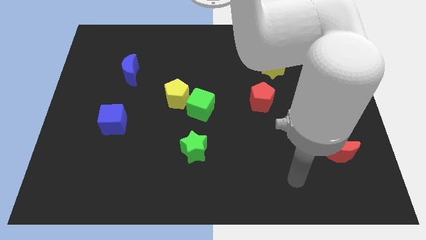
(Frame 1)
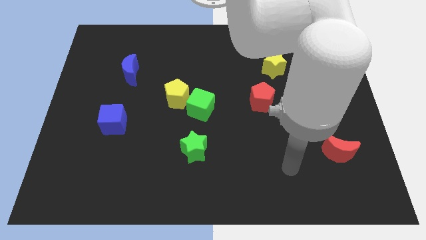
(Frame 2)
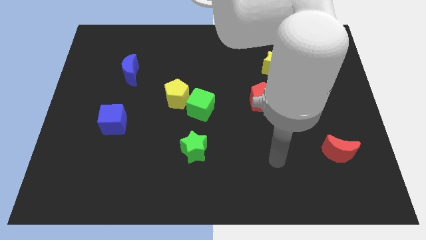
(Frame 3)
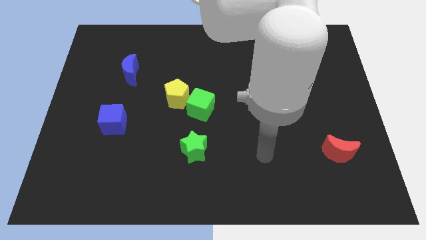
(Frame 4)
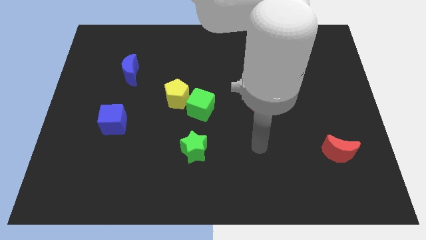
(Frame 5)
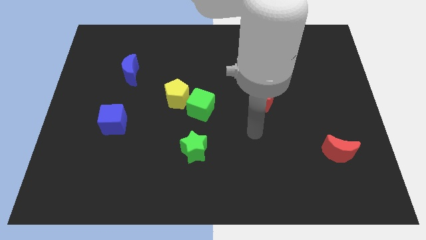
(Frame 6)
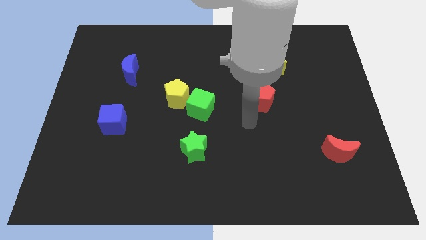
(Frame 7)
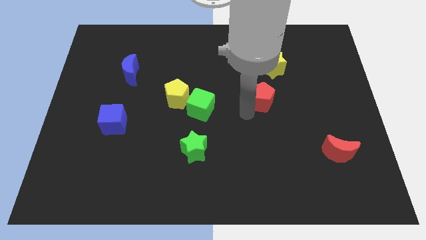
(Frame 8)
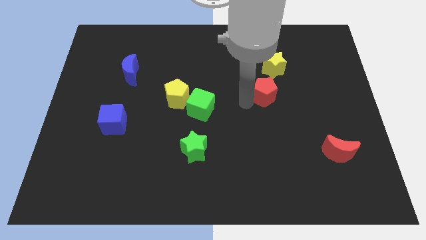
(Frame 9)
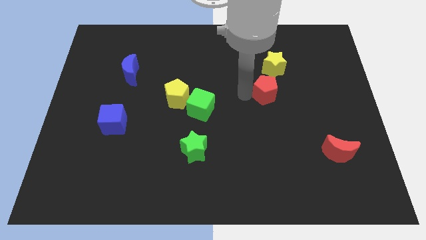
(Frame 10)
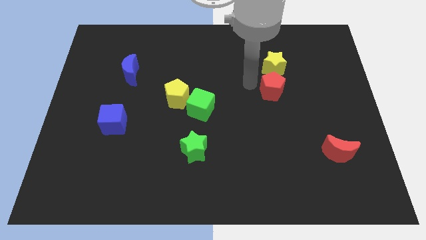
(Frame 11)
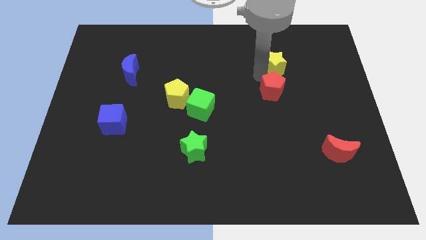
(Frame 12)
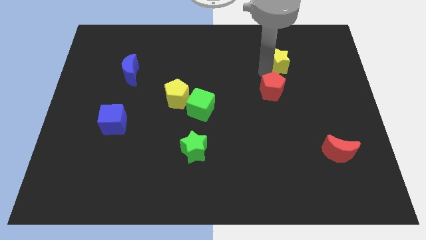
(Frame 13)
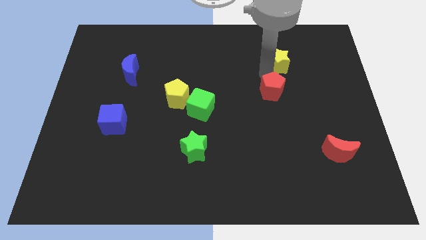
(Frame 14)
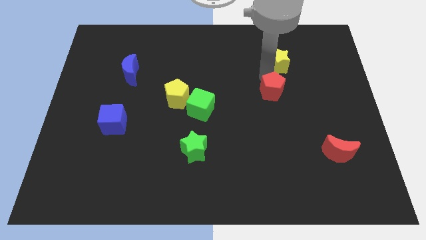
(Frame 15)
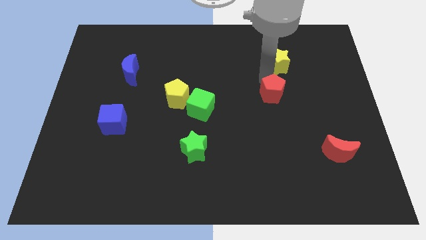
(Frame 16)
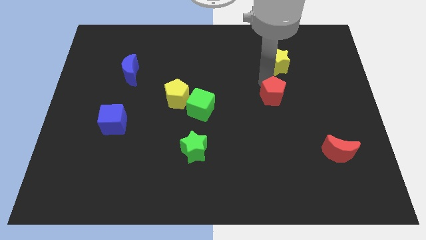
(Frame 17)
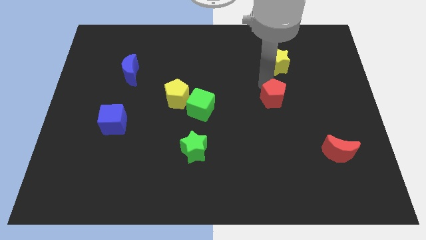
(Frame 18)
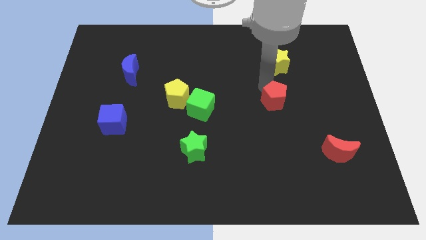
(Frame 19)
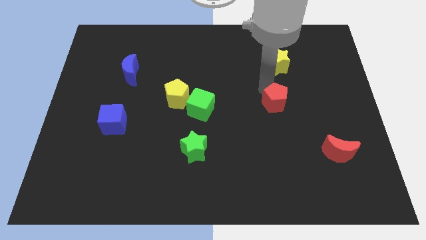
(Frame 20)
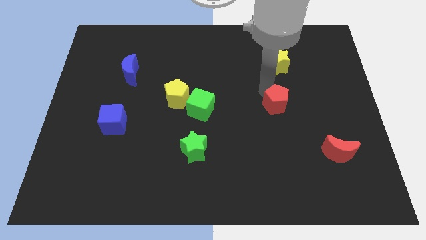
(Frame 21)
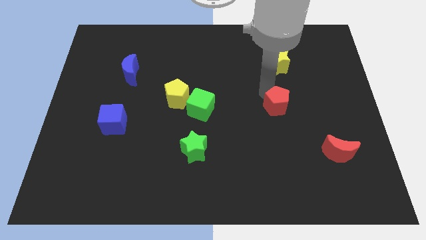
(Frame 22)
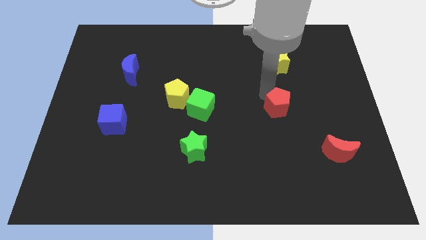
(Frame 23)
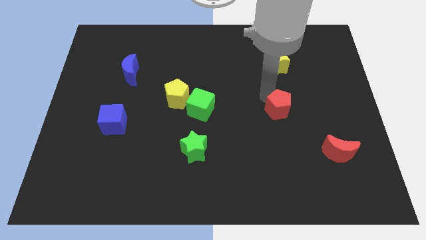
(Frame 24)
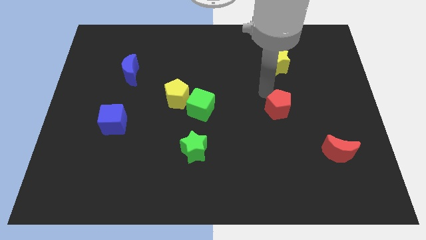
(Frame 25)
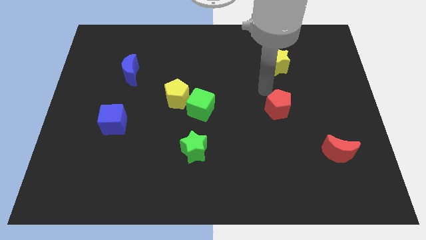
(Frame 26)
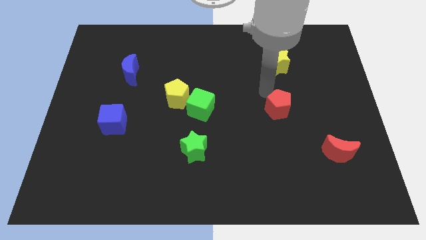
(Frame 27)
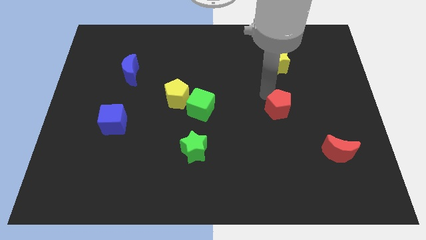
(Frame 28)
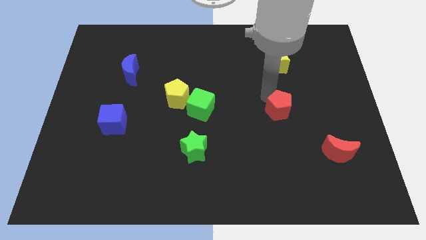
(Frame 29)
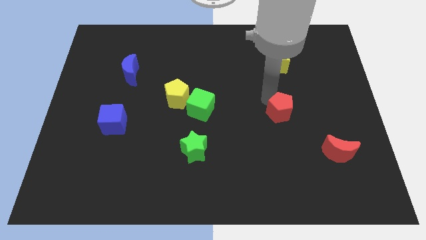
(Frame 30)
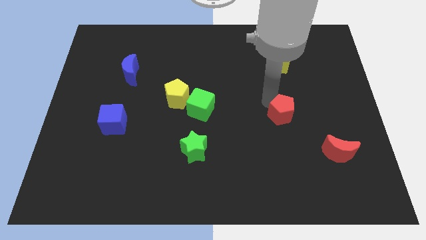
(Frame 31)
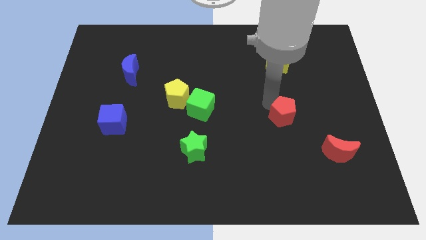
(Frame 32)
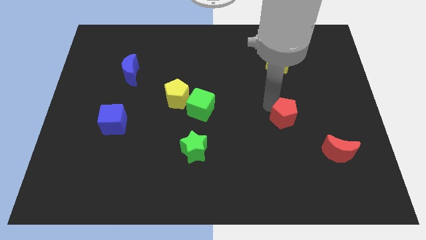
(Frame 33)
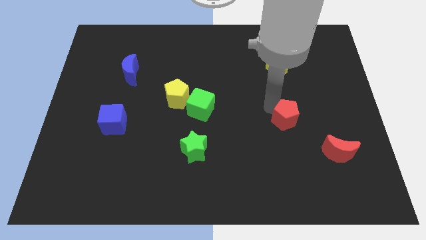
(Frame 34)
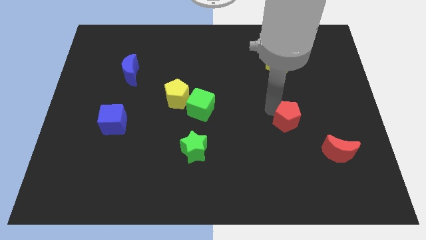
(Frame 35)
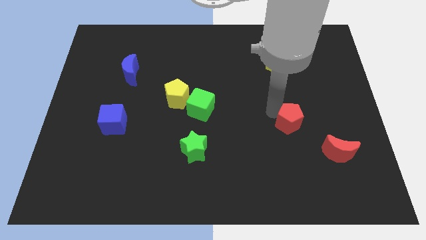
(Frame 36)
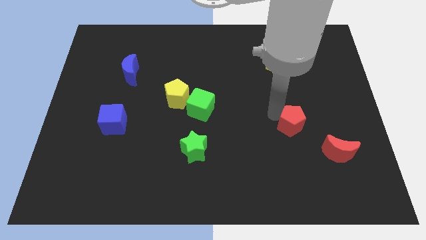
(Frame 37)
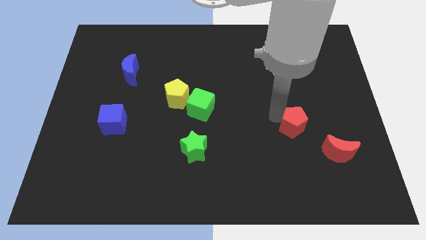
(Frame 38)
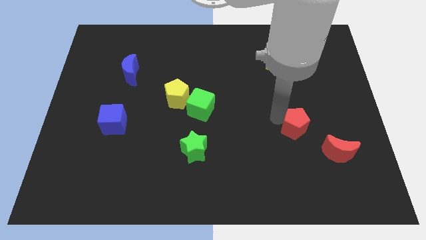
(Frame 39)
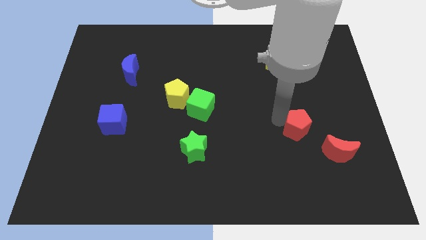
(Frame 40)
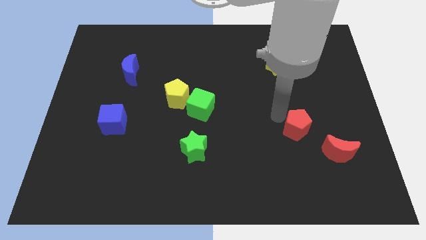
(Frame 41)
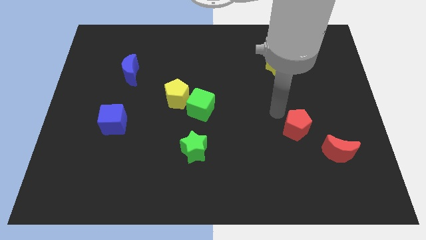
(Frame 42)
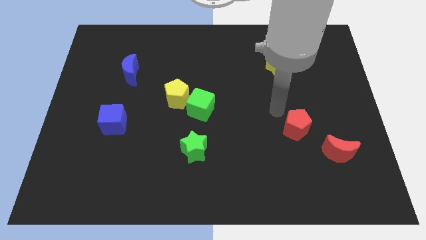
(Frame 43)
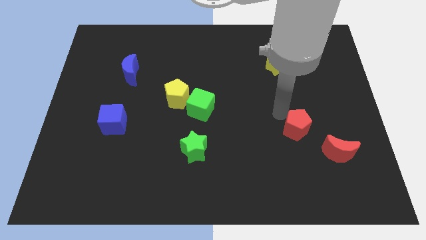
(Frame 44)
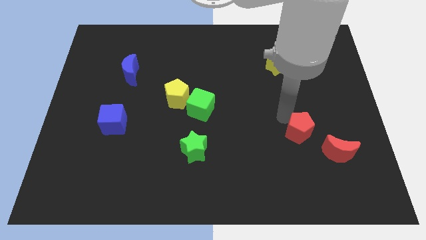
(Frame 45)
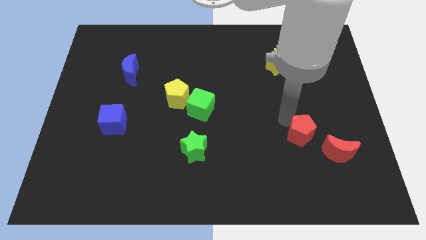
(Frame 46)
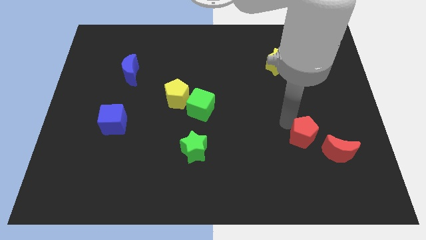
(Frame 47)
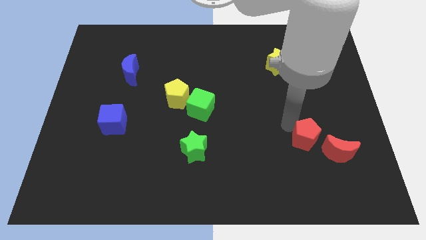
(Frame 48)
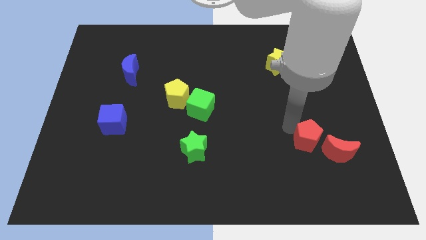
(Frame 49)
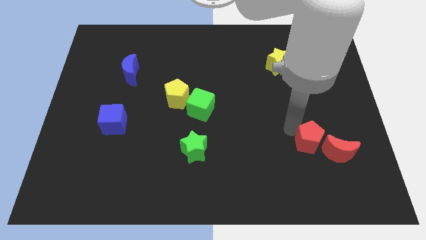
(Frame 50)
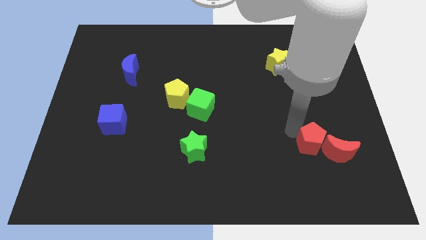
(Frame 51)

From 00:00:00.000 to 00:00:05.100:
slide the red pentagon to the red moon

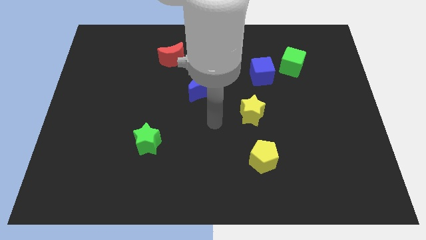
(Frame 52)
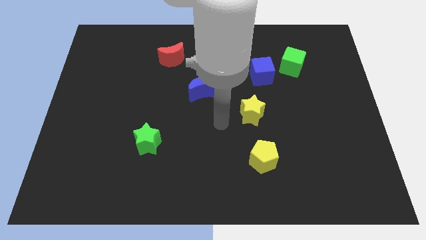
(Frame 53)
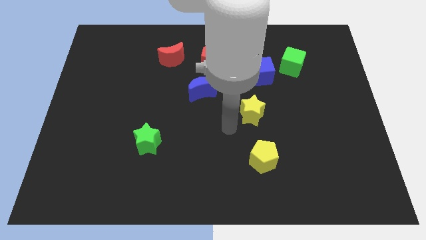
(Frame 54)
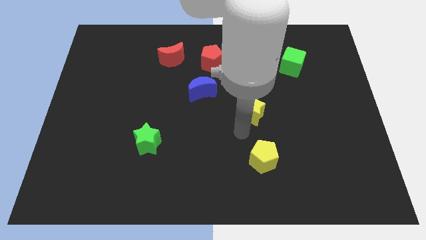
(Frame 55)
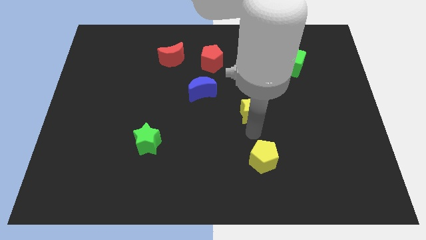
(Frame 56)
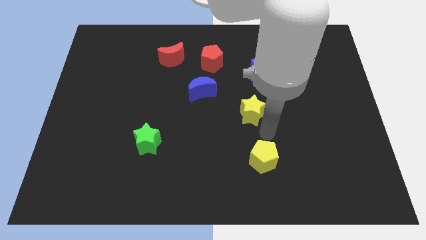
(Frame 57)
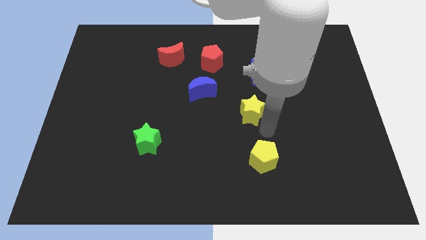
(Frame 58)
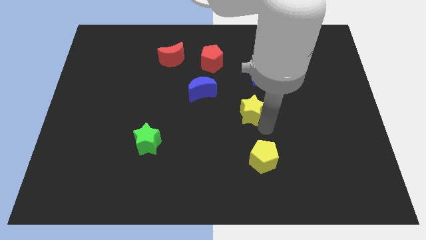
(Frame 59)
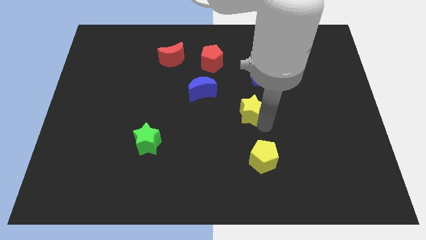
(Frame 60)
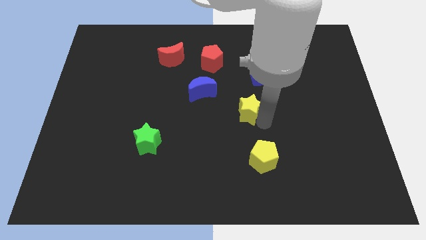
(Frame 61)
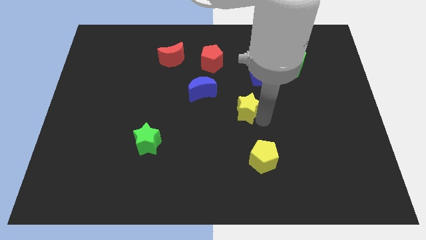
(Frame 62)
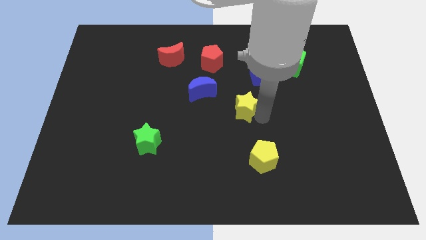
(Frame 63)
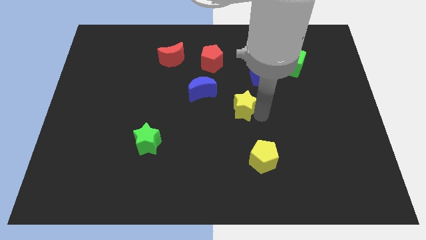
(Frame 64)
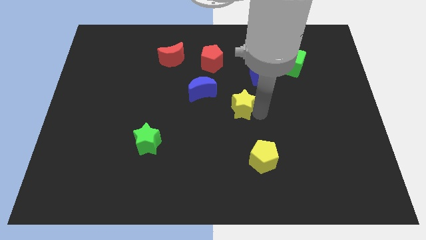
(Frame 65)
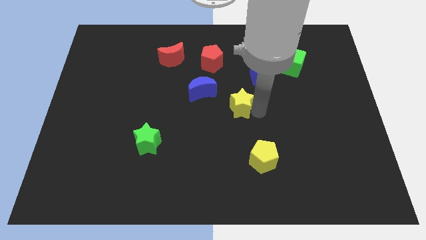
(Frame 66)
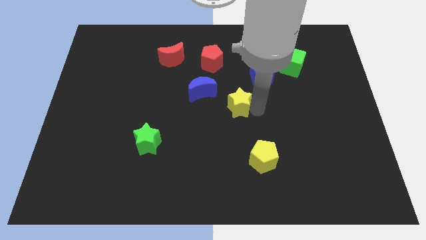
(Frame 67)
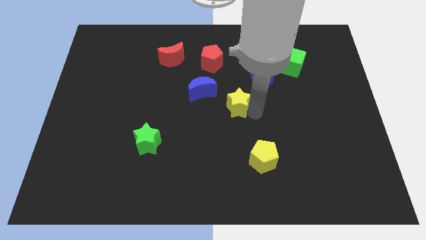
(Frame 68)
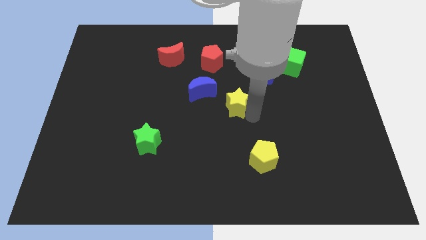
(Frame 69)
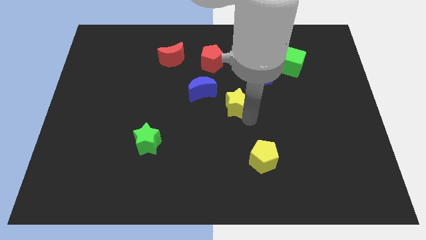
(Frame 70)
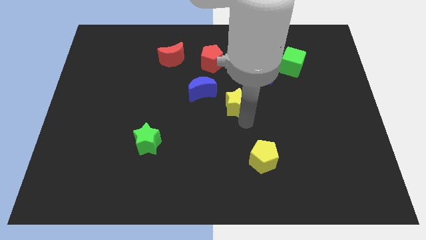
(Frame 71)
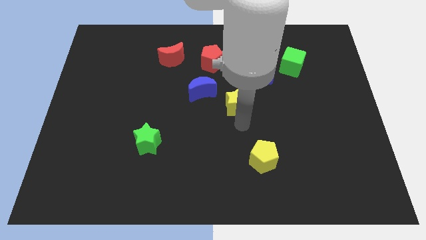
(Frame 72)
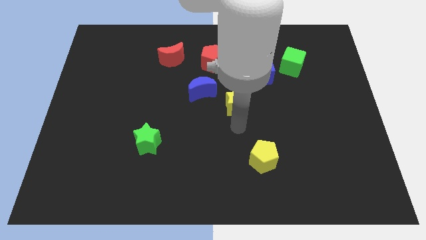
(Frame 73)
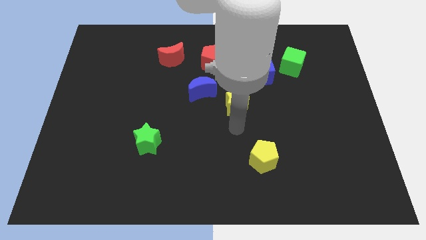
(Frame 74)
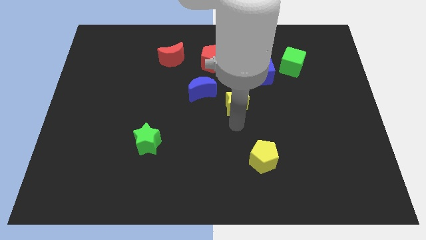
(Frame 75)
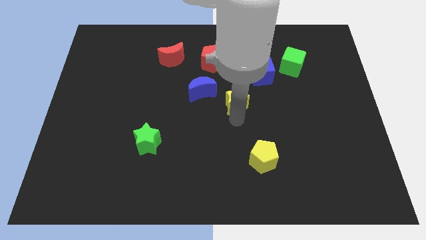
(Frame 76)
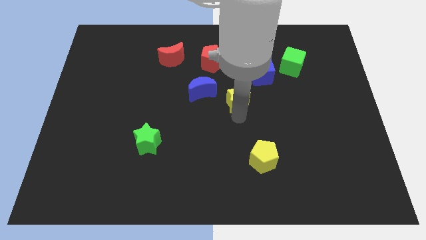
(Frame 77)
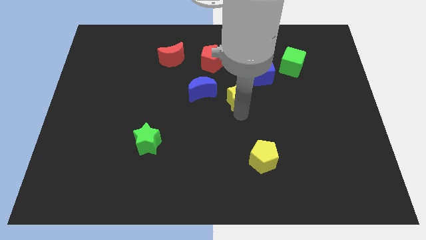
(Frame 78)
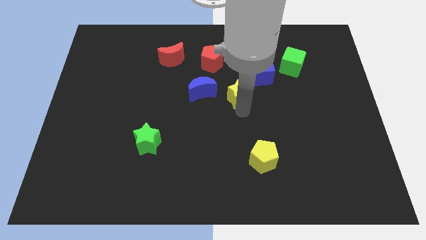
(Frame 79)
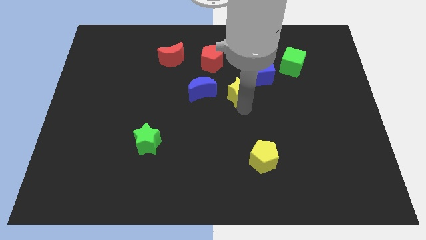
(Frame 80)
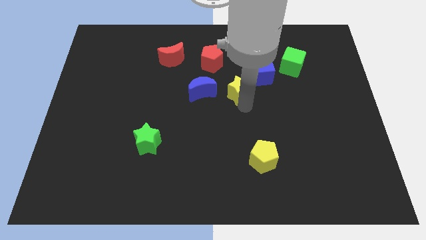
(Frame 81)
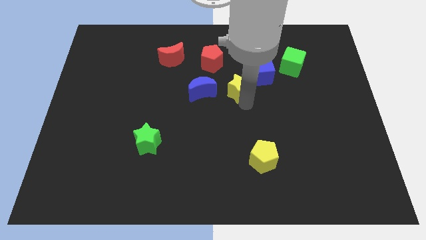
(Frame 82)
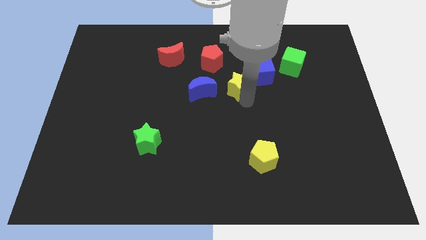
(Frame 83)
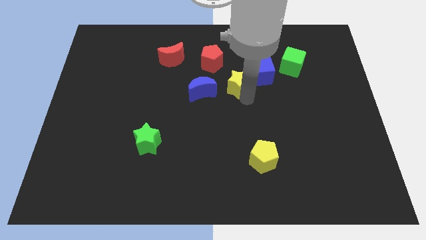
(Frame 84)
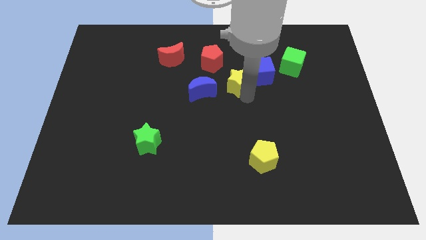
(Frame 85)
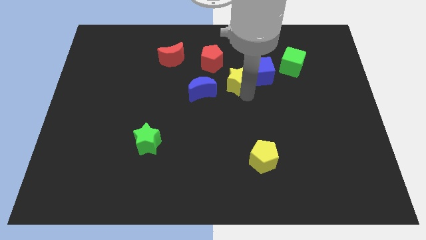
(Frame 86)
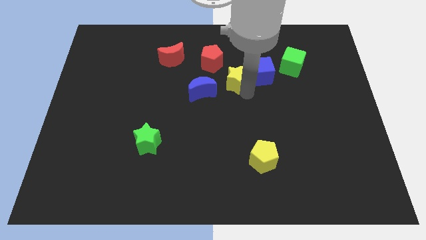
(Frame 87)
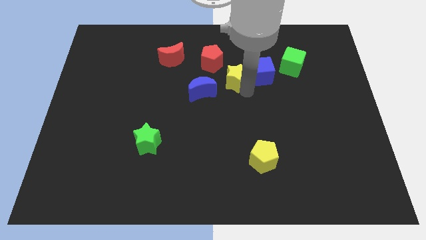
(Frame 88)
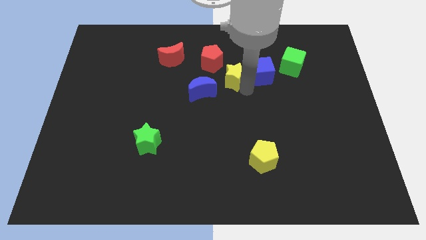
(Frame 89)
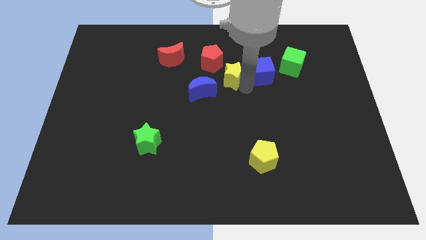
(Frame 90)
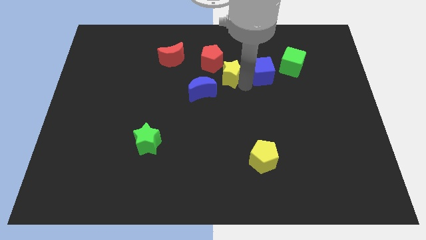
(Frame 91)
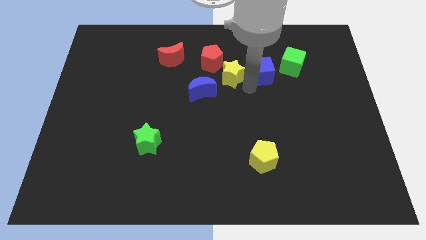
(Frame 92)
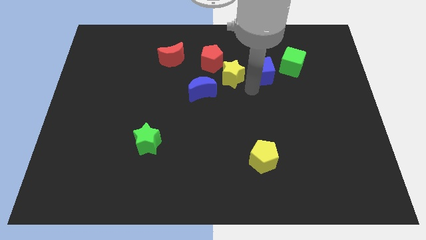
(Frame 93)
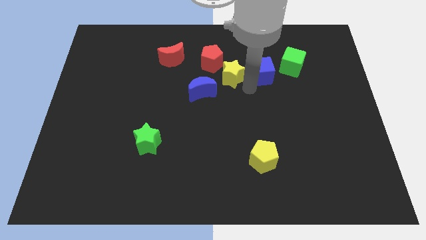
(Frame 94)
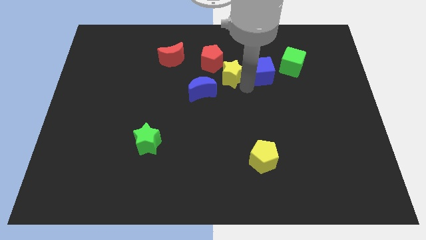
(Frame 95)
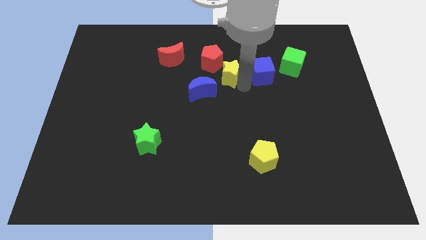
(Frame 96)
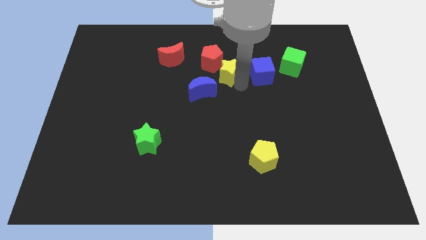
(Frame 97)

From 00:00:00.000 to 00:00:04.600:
move the yellow star next to the red pentagon
